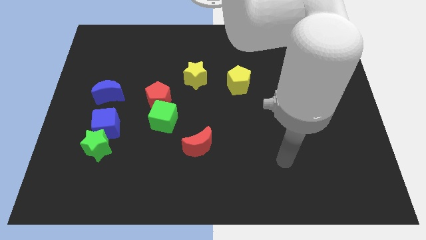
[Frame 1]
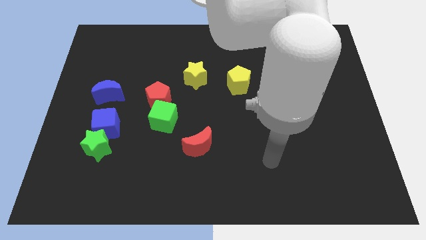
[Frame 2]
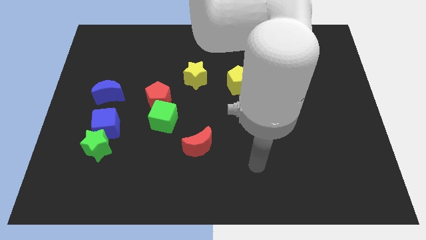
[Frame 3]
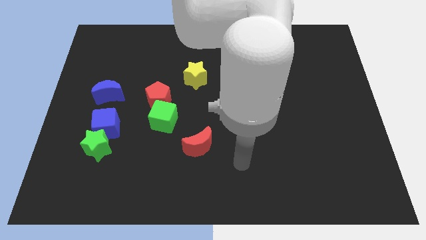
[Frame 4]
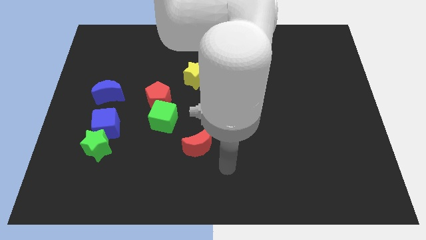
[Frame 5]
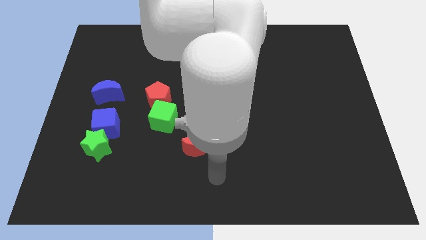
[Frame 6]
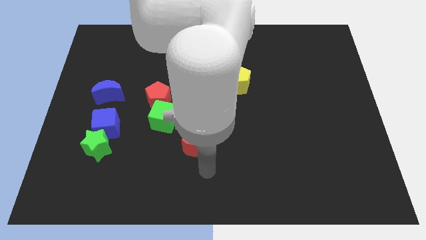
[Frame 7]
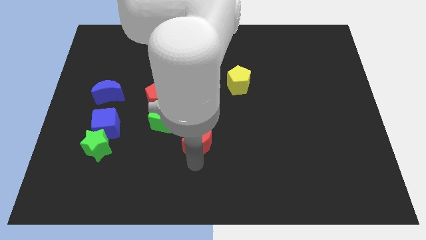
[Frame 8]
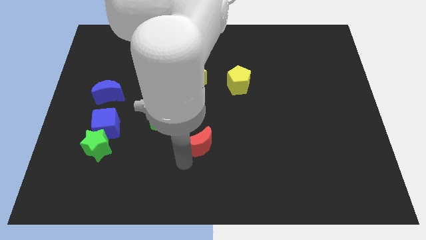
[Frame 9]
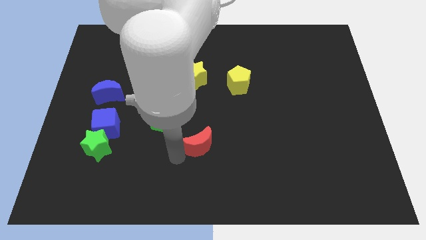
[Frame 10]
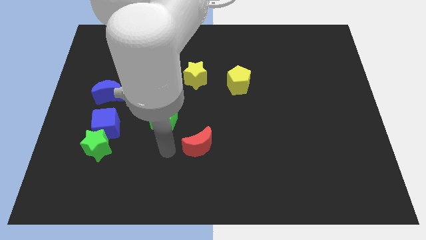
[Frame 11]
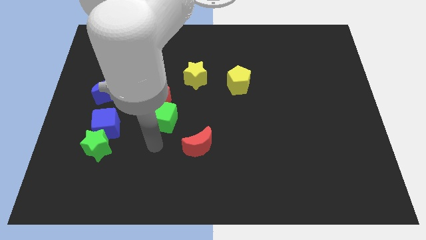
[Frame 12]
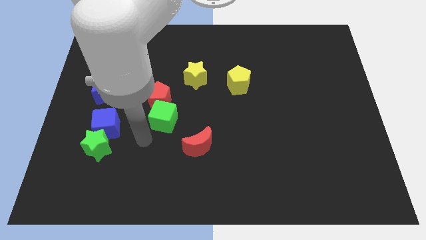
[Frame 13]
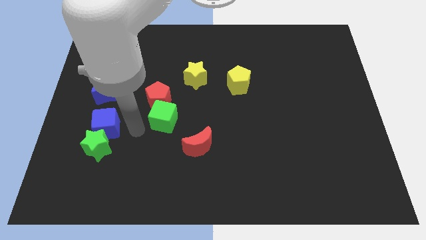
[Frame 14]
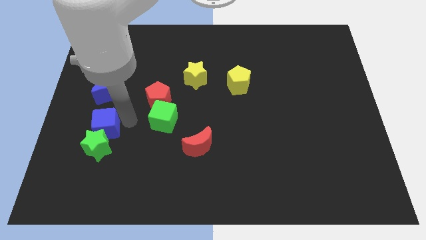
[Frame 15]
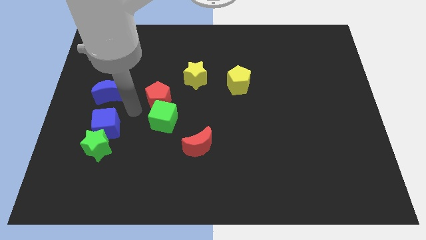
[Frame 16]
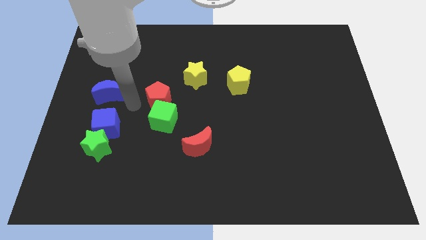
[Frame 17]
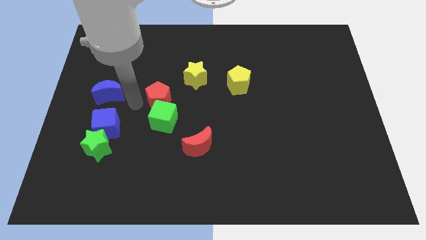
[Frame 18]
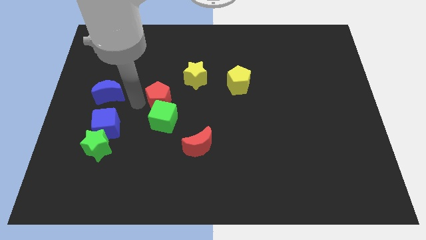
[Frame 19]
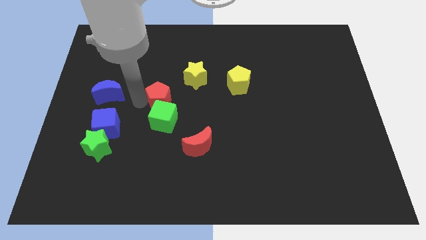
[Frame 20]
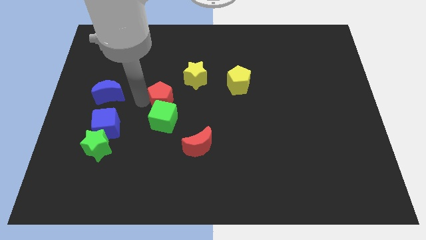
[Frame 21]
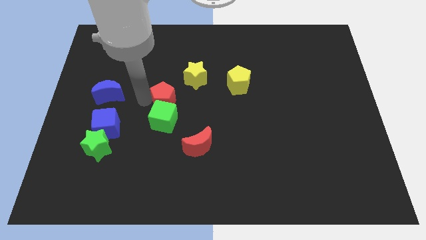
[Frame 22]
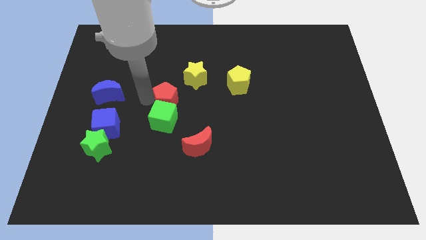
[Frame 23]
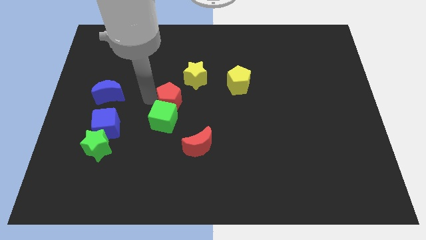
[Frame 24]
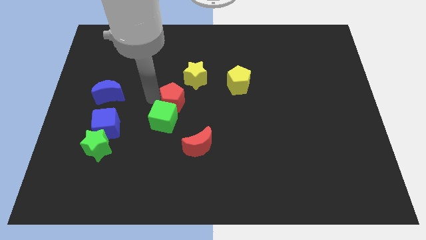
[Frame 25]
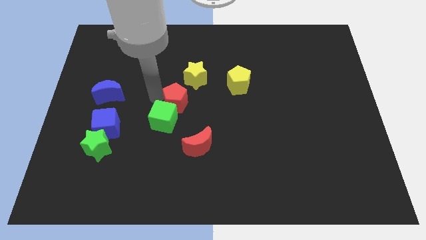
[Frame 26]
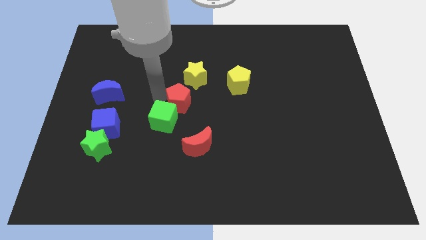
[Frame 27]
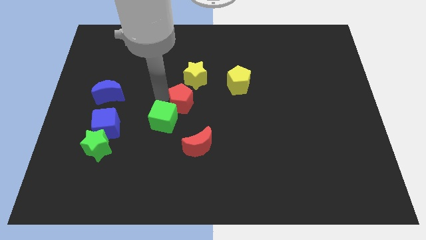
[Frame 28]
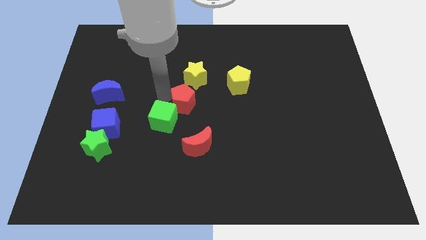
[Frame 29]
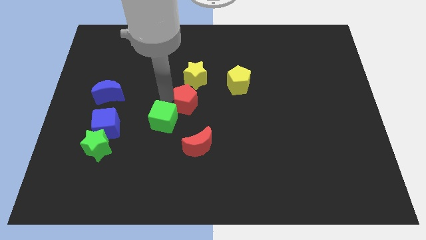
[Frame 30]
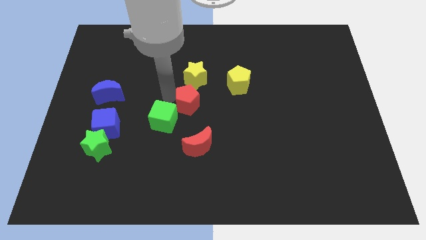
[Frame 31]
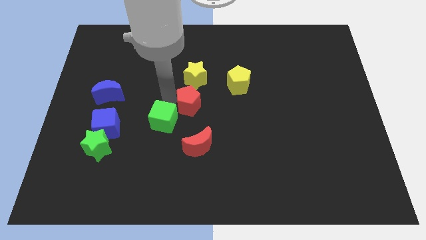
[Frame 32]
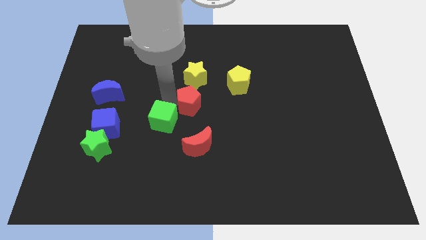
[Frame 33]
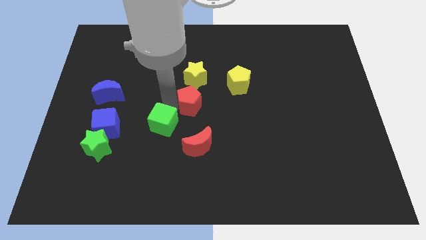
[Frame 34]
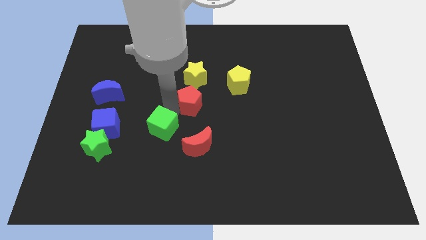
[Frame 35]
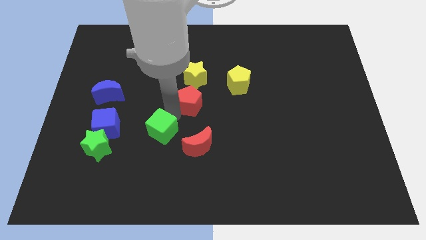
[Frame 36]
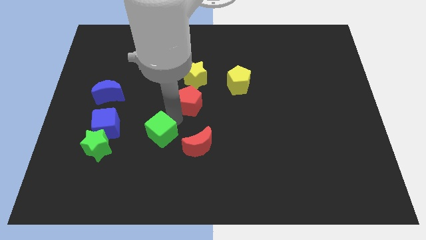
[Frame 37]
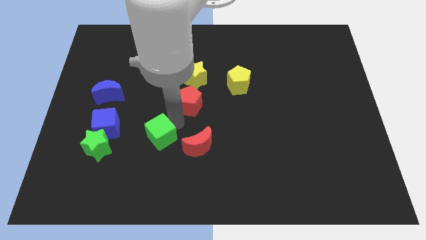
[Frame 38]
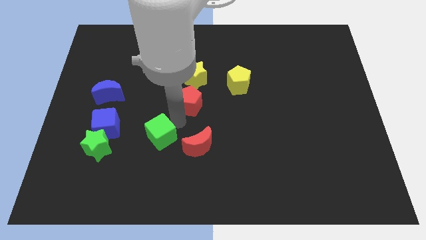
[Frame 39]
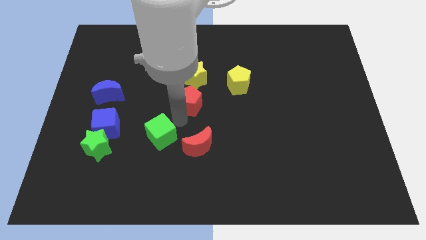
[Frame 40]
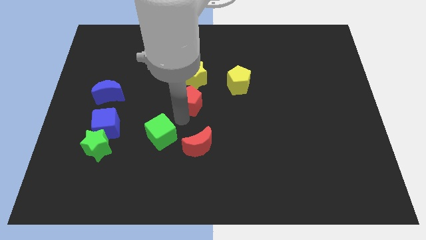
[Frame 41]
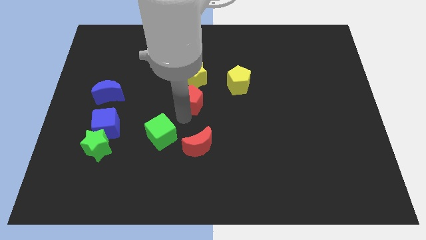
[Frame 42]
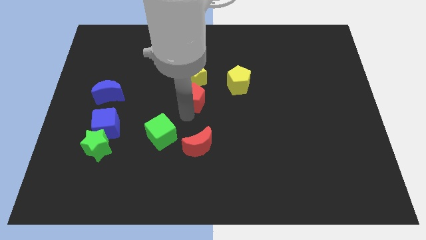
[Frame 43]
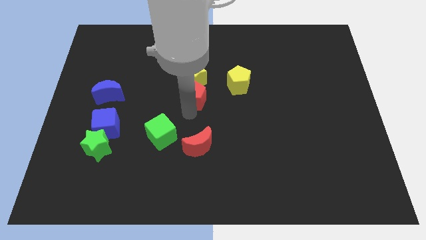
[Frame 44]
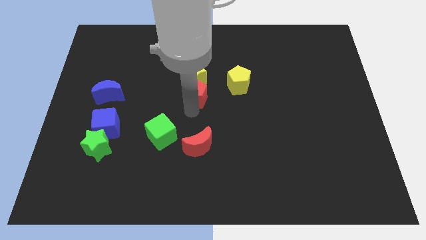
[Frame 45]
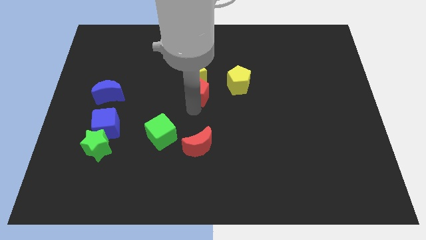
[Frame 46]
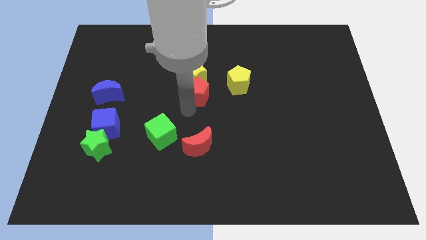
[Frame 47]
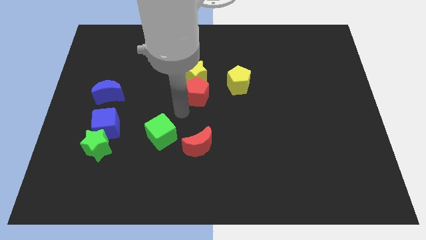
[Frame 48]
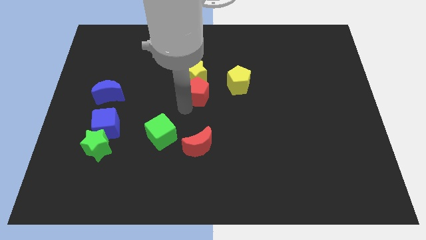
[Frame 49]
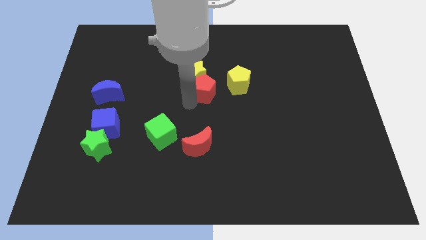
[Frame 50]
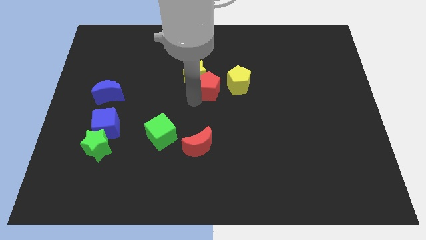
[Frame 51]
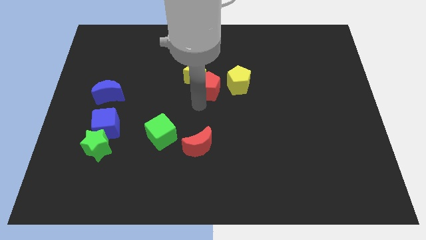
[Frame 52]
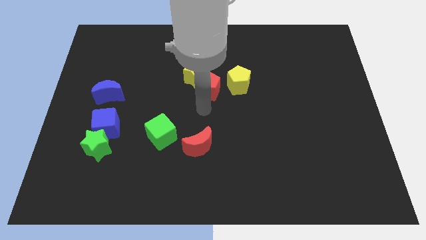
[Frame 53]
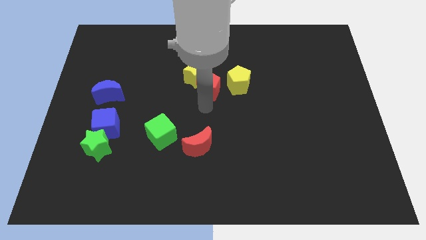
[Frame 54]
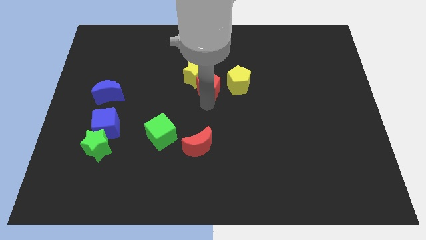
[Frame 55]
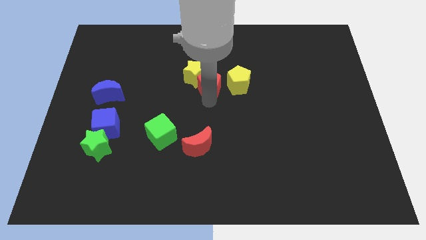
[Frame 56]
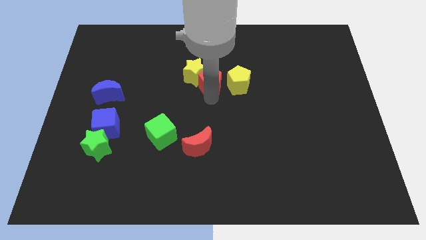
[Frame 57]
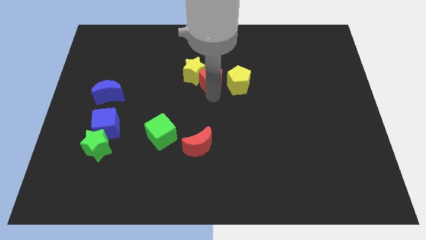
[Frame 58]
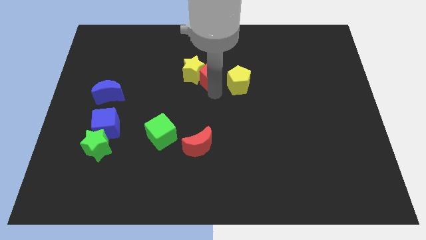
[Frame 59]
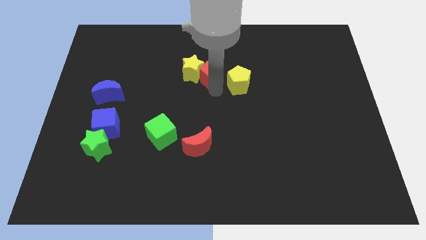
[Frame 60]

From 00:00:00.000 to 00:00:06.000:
move the red pentagon to the top right of the yellow star
